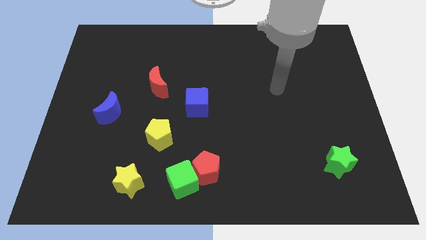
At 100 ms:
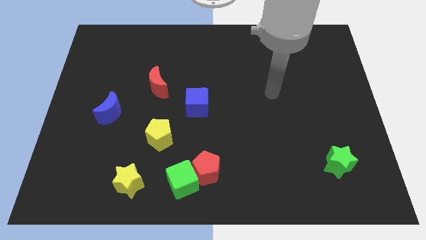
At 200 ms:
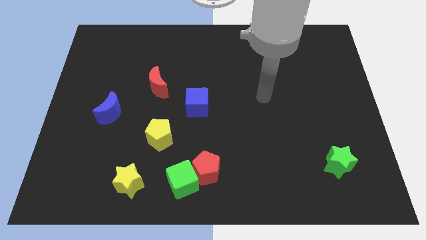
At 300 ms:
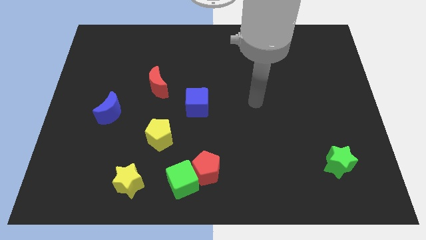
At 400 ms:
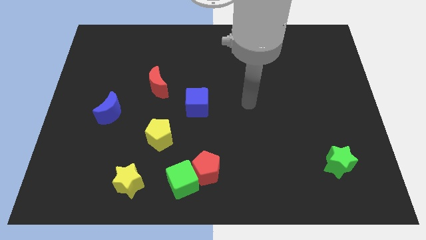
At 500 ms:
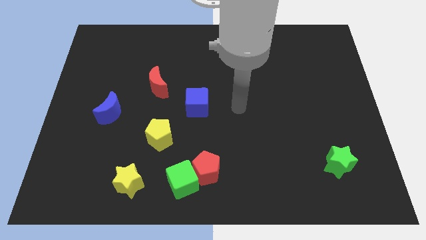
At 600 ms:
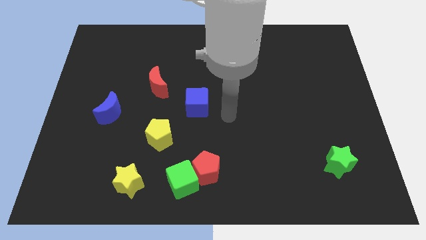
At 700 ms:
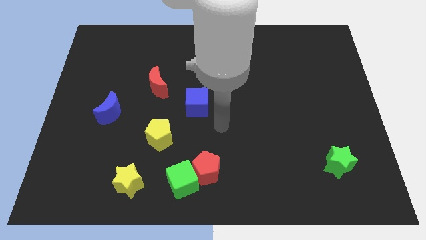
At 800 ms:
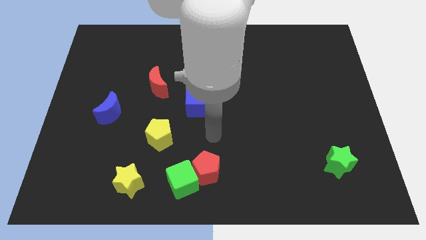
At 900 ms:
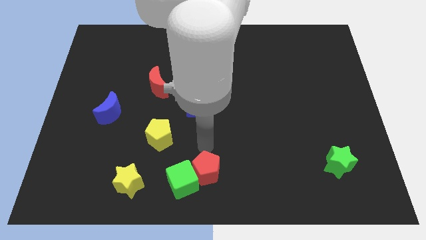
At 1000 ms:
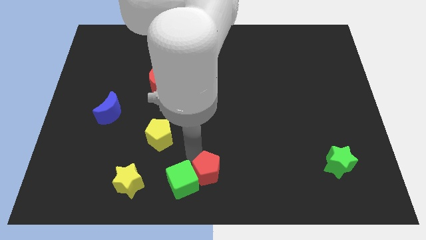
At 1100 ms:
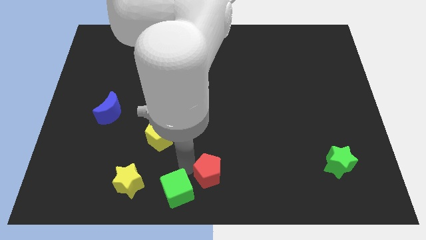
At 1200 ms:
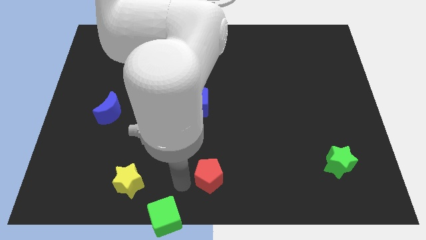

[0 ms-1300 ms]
move the red pentagon away from the green cube

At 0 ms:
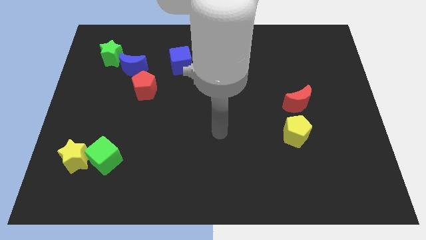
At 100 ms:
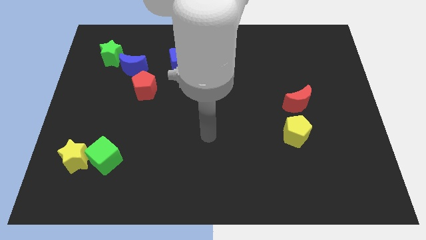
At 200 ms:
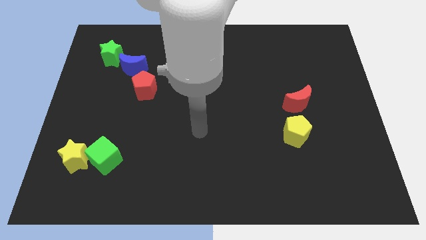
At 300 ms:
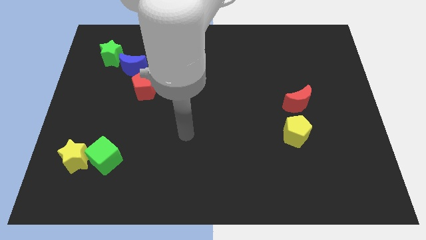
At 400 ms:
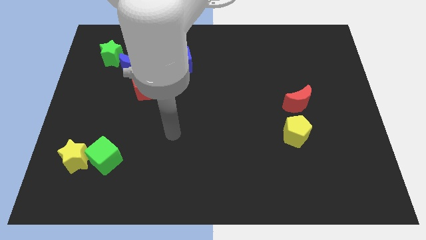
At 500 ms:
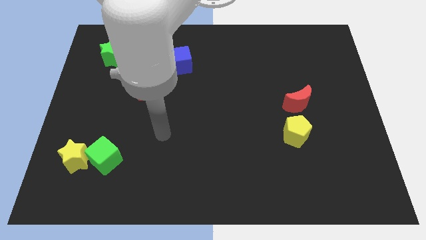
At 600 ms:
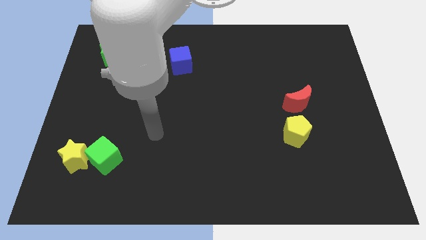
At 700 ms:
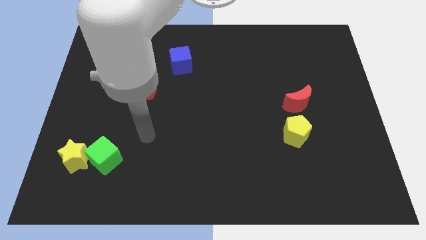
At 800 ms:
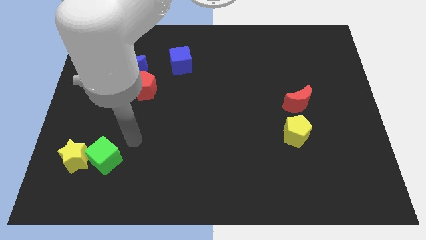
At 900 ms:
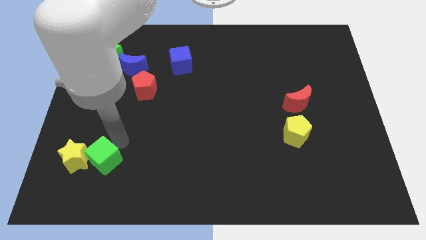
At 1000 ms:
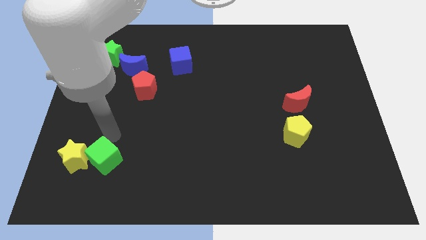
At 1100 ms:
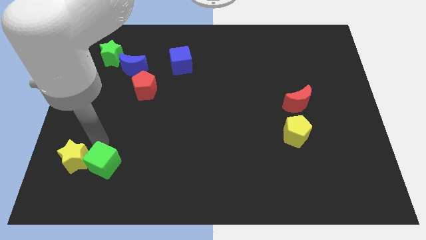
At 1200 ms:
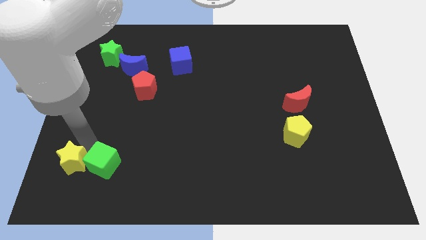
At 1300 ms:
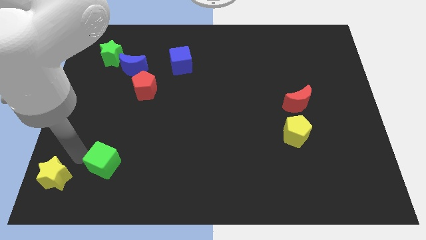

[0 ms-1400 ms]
separate the green cube from the yellow star

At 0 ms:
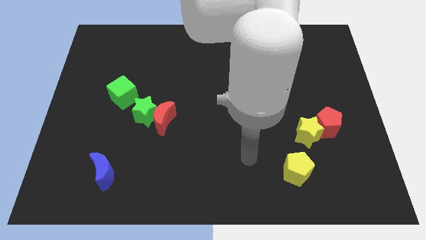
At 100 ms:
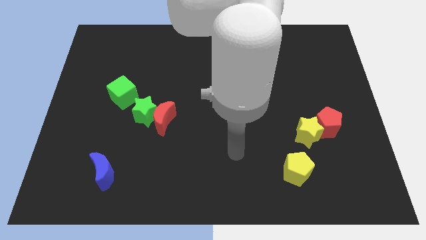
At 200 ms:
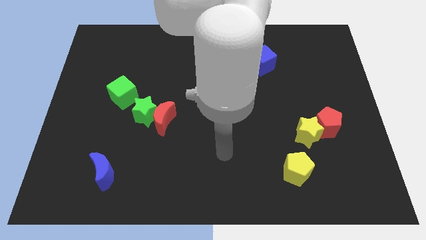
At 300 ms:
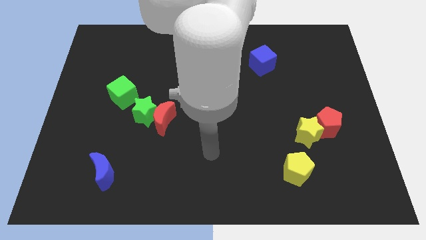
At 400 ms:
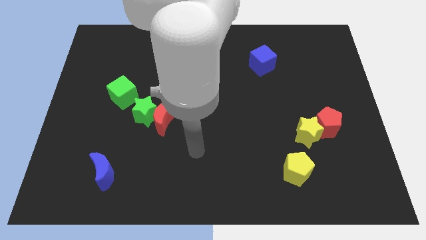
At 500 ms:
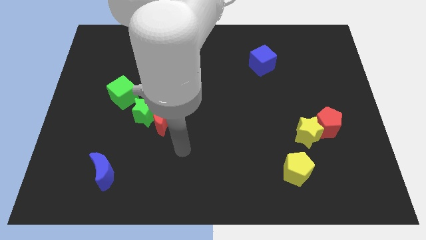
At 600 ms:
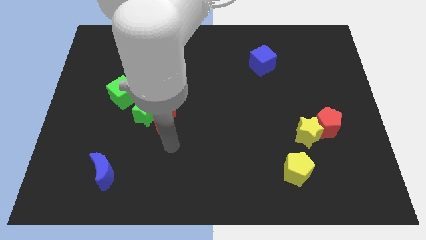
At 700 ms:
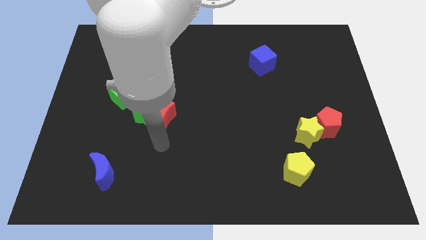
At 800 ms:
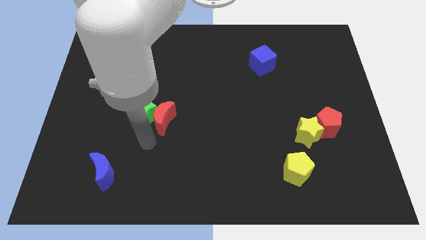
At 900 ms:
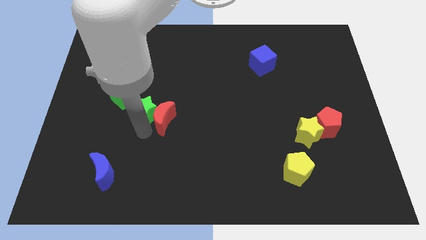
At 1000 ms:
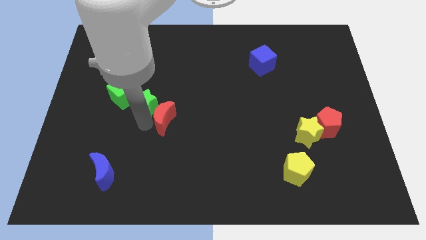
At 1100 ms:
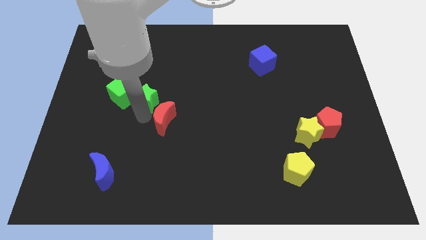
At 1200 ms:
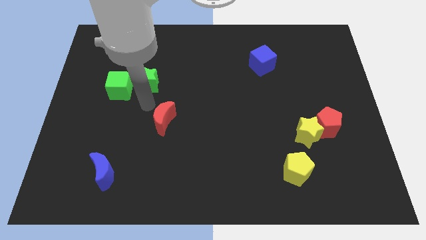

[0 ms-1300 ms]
separate the red moon from the green star

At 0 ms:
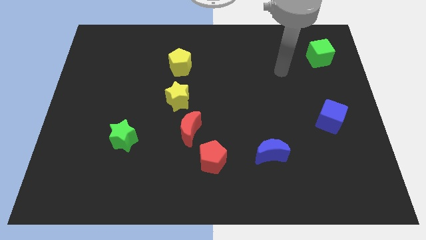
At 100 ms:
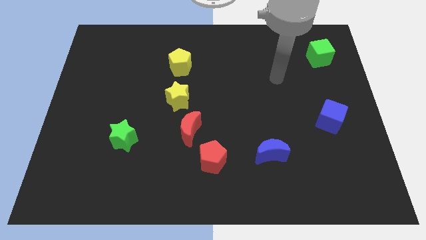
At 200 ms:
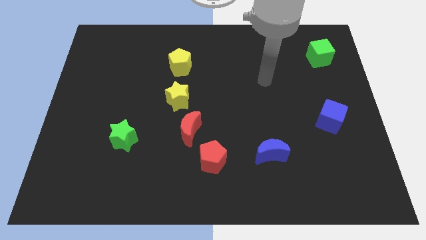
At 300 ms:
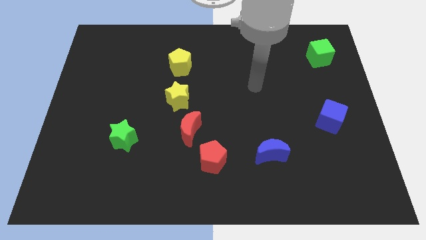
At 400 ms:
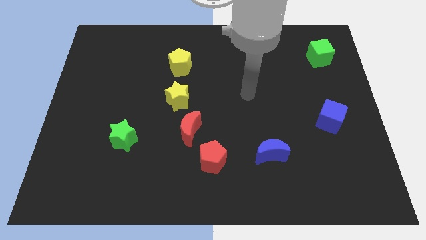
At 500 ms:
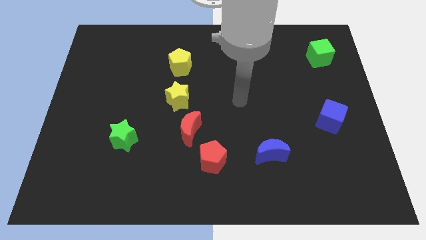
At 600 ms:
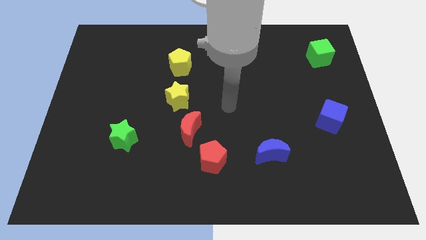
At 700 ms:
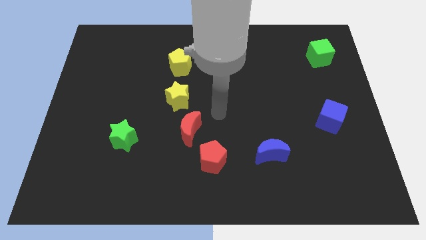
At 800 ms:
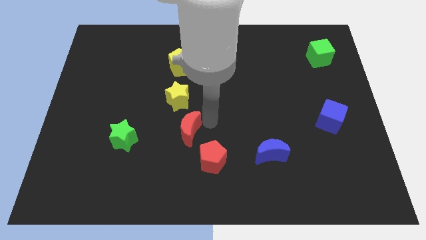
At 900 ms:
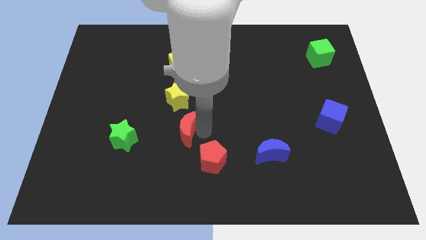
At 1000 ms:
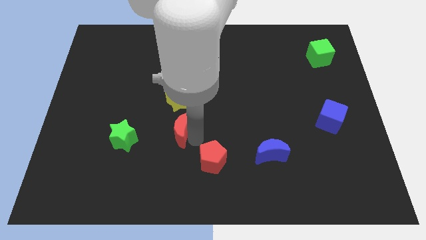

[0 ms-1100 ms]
pull the red pentagon apart from the red moon

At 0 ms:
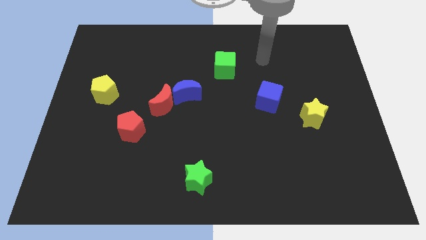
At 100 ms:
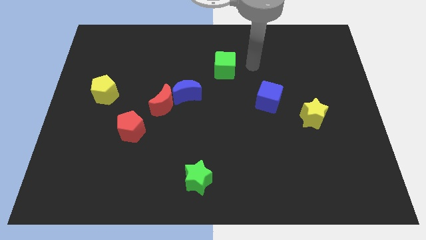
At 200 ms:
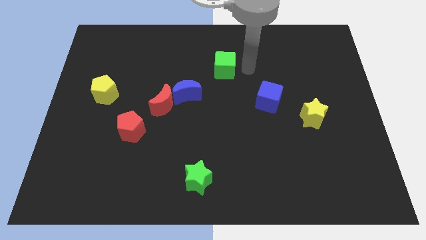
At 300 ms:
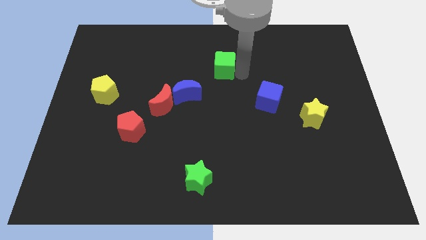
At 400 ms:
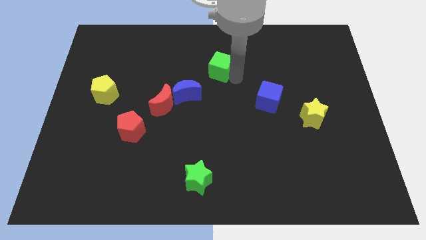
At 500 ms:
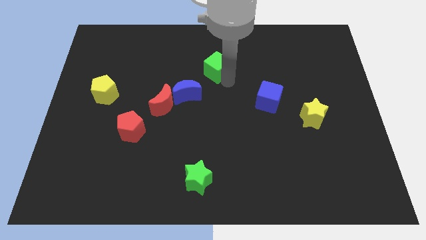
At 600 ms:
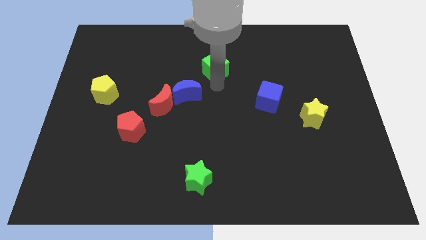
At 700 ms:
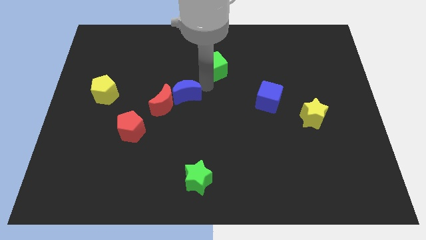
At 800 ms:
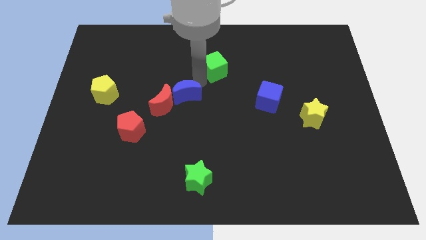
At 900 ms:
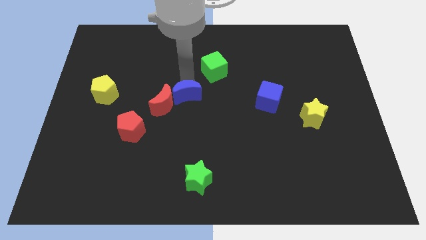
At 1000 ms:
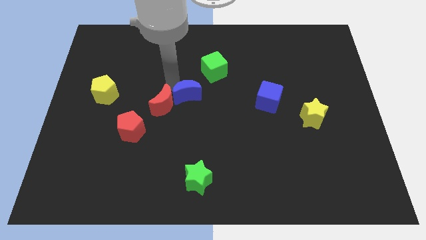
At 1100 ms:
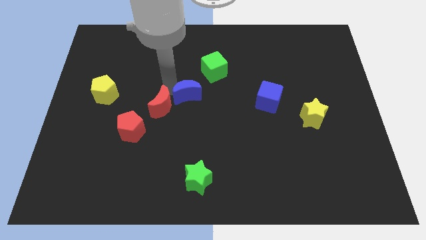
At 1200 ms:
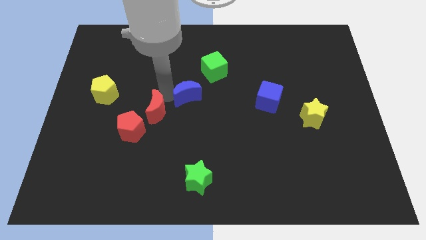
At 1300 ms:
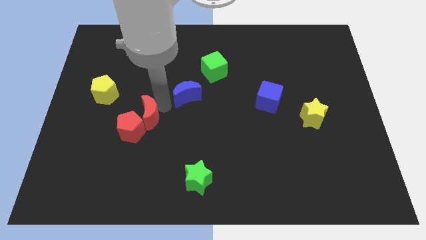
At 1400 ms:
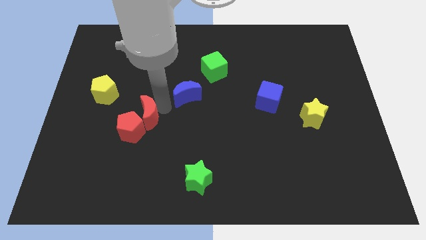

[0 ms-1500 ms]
move the blue moon away from the red moon

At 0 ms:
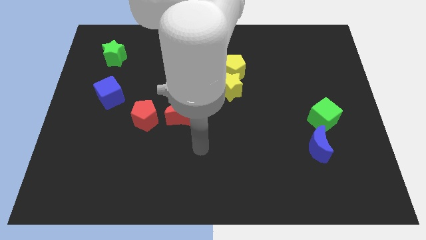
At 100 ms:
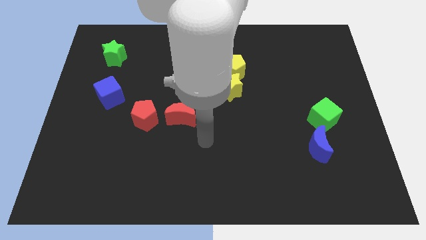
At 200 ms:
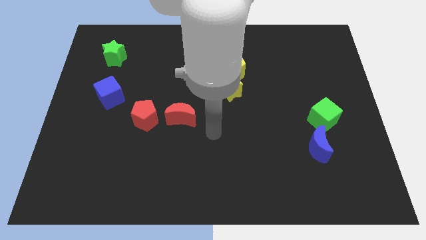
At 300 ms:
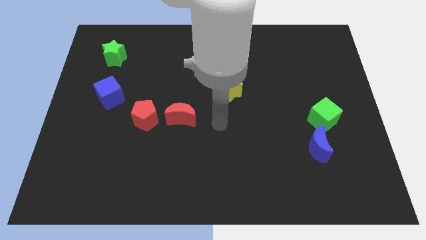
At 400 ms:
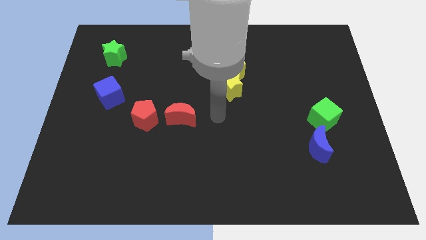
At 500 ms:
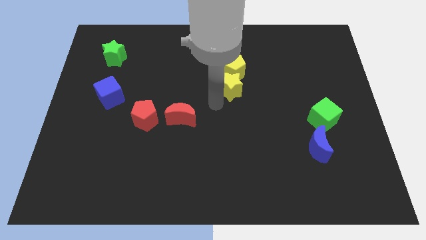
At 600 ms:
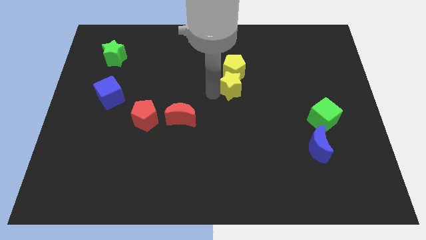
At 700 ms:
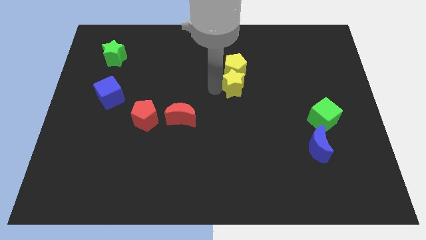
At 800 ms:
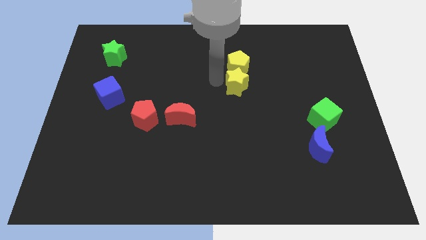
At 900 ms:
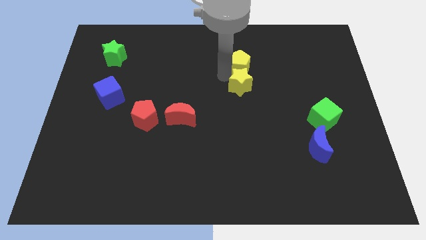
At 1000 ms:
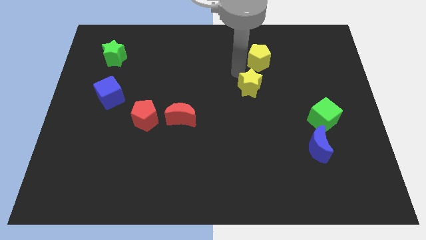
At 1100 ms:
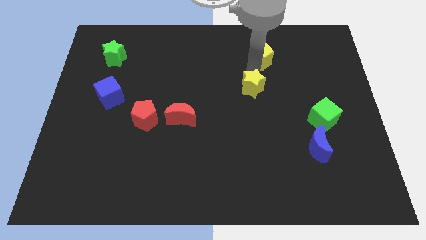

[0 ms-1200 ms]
move the yellow star away from the yellow pentagon

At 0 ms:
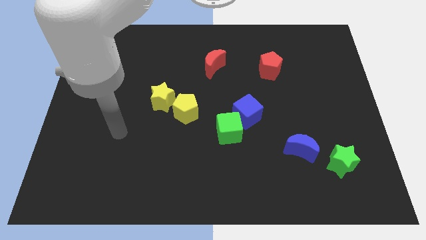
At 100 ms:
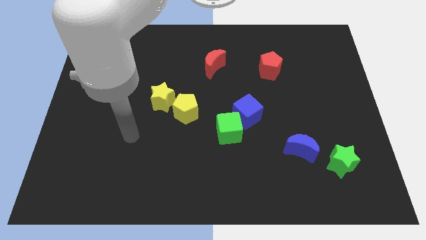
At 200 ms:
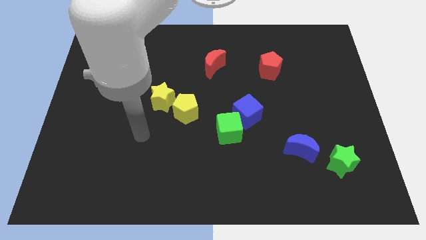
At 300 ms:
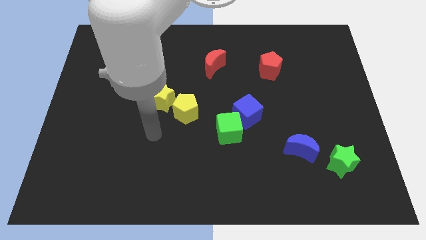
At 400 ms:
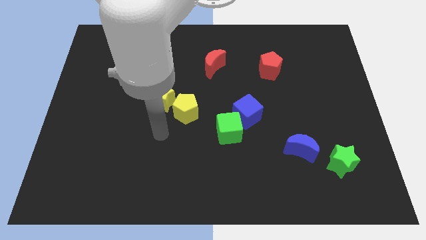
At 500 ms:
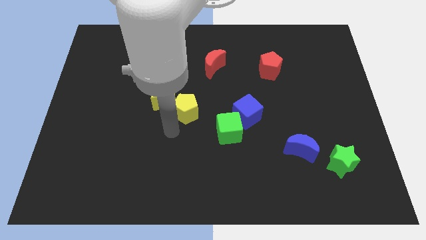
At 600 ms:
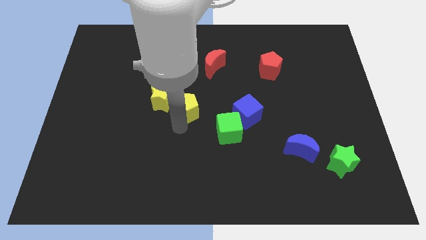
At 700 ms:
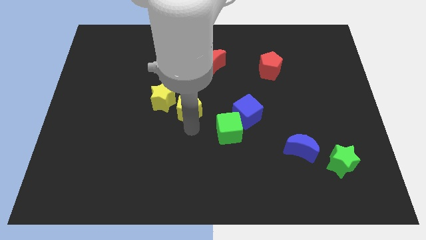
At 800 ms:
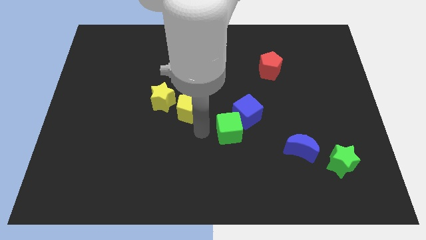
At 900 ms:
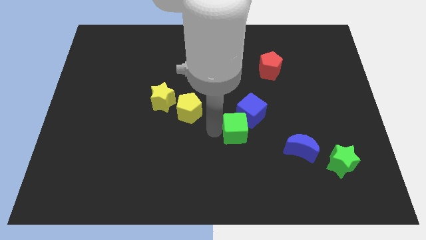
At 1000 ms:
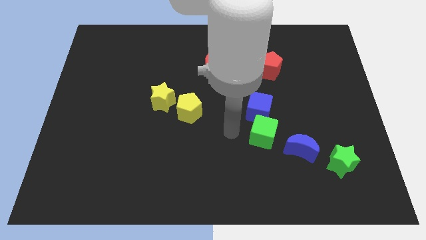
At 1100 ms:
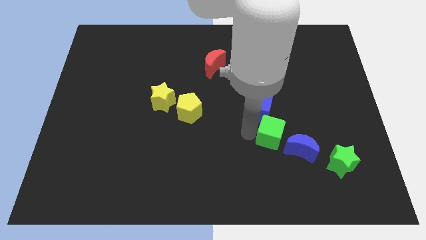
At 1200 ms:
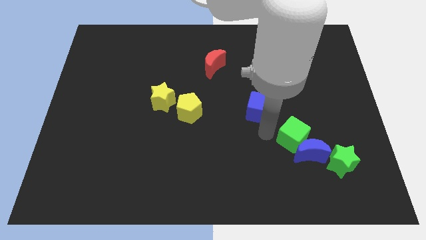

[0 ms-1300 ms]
separate the blue cube from the green cube

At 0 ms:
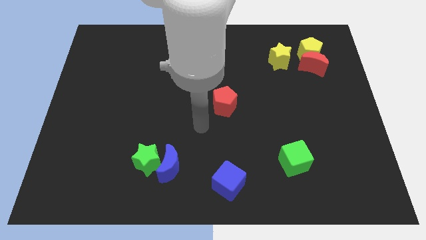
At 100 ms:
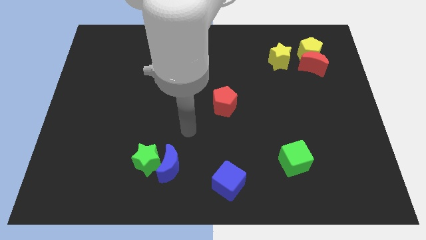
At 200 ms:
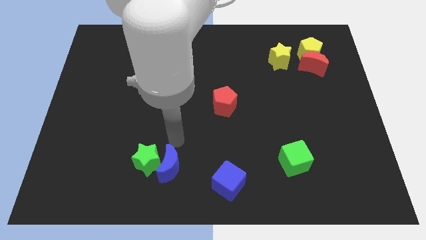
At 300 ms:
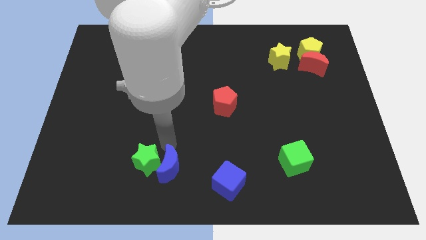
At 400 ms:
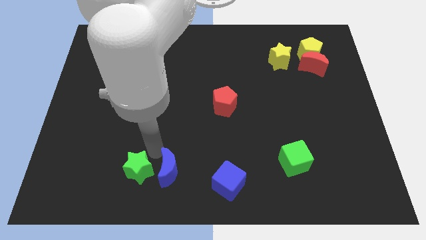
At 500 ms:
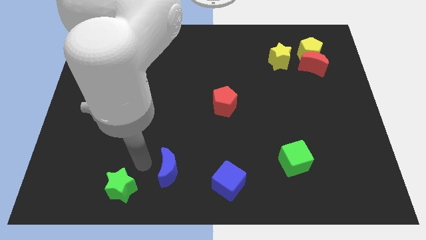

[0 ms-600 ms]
separate the blue moon from the green star
